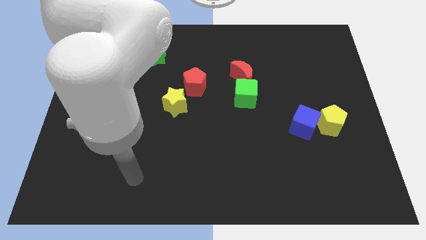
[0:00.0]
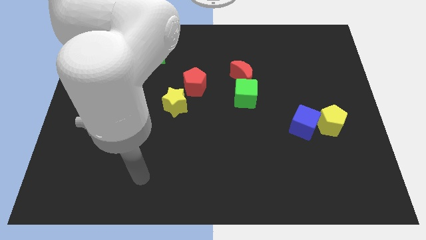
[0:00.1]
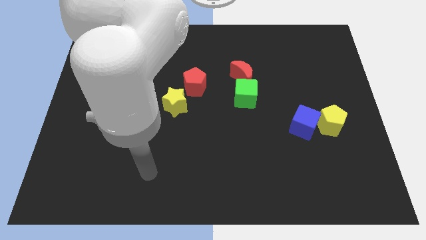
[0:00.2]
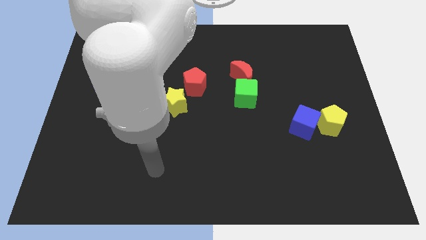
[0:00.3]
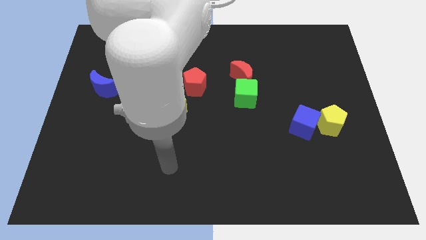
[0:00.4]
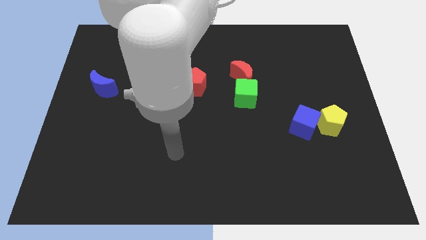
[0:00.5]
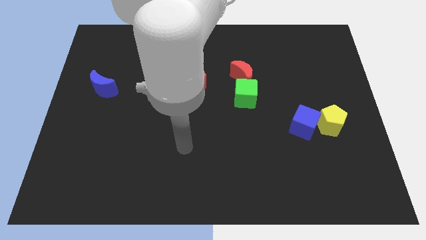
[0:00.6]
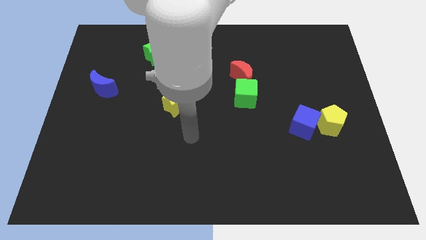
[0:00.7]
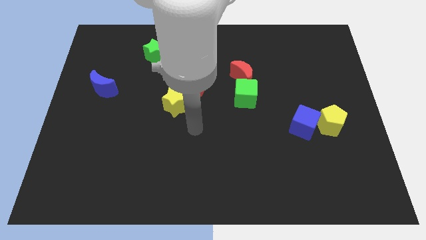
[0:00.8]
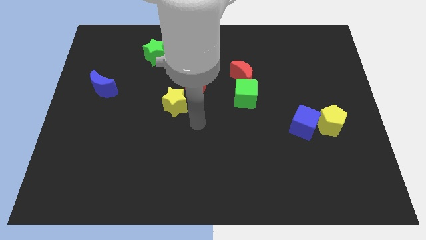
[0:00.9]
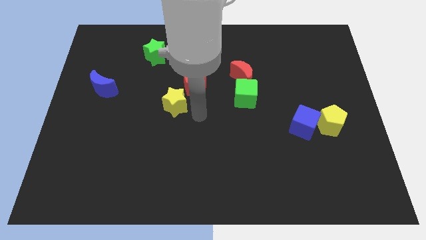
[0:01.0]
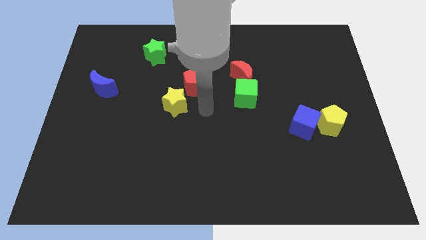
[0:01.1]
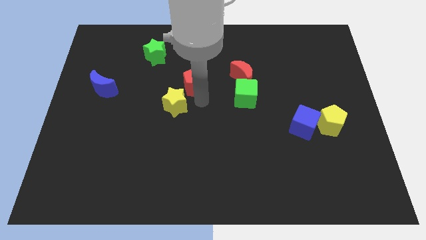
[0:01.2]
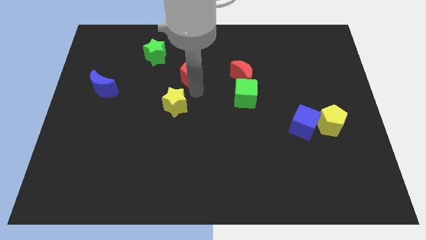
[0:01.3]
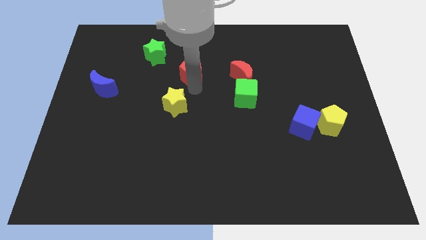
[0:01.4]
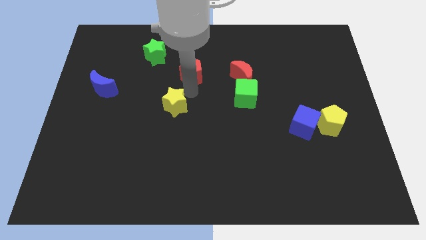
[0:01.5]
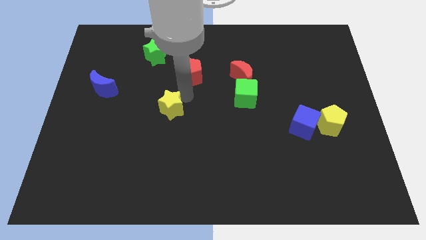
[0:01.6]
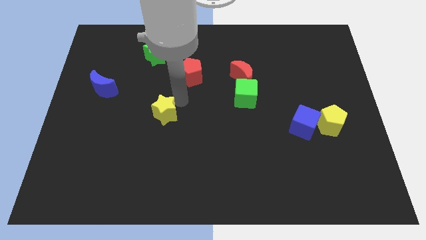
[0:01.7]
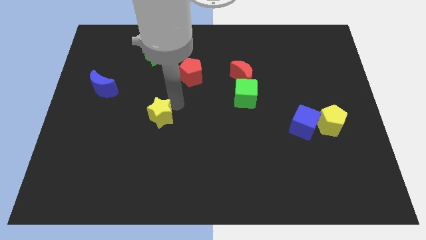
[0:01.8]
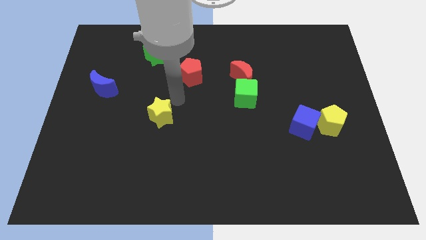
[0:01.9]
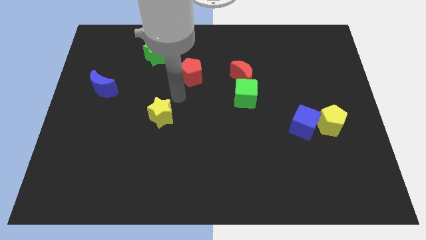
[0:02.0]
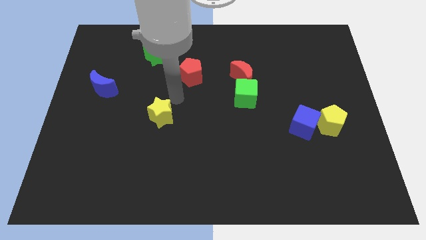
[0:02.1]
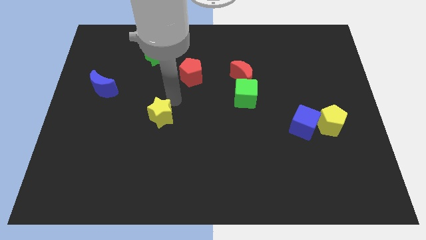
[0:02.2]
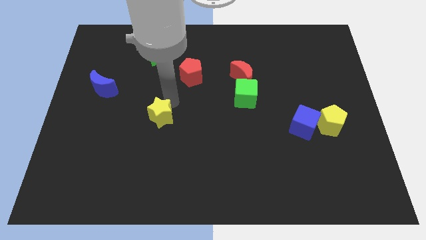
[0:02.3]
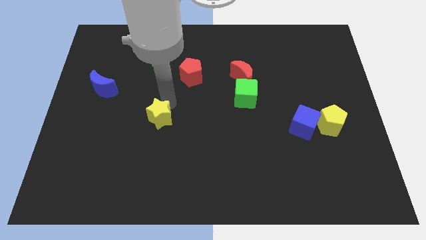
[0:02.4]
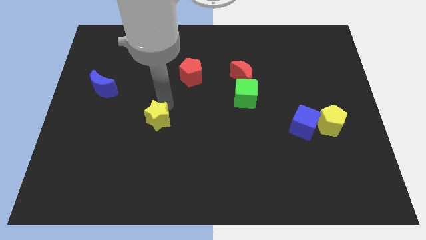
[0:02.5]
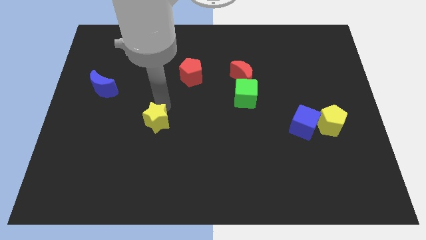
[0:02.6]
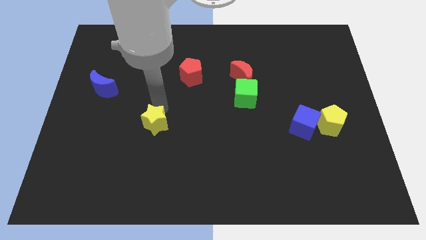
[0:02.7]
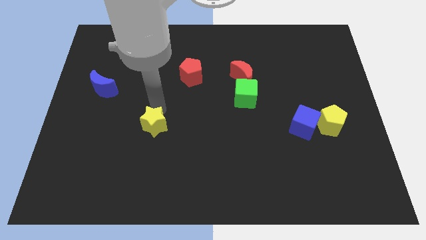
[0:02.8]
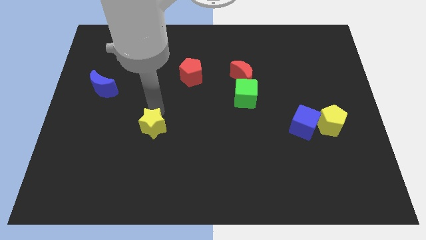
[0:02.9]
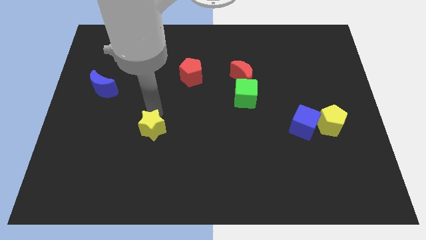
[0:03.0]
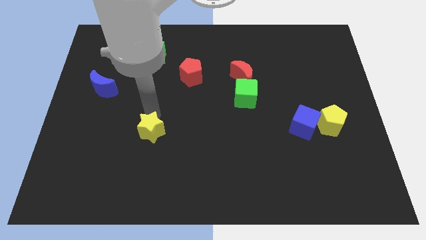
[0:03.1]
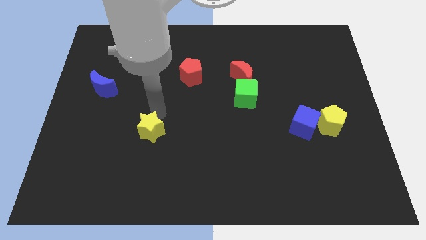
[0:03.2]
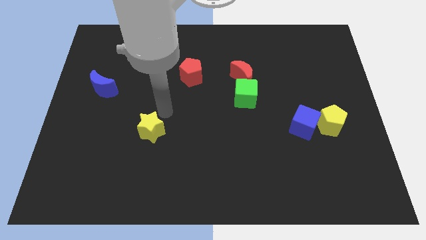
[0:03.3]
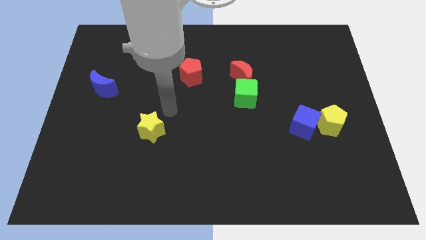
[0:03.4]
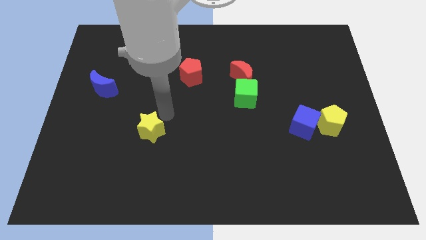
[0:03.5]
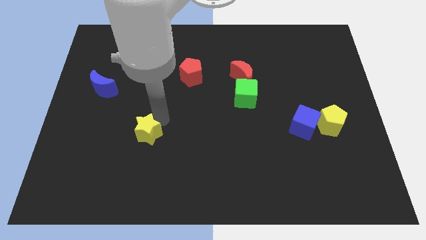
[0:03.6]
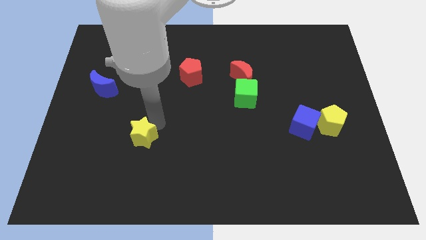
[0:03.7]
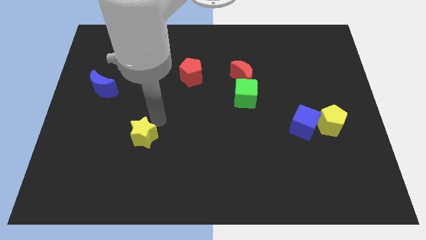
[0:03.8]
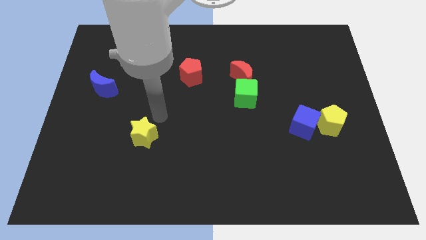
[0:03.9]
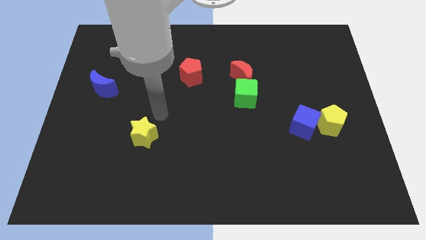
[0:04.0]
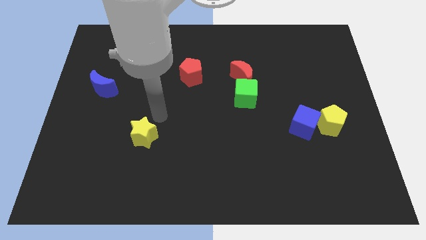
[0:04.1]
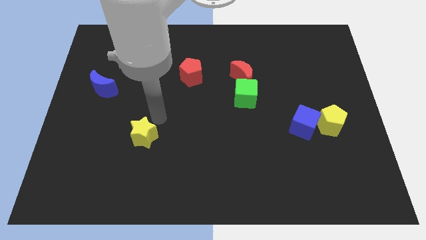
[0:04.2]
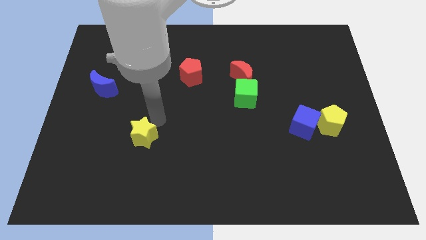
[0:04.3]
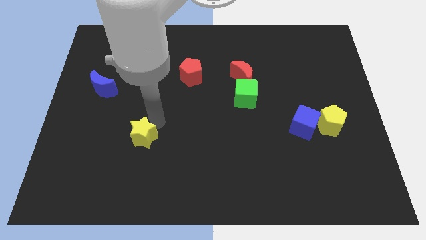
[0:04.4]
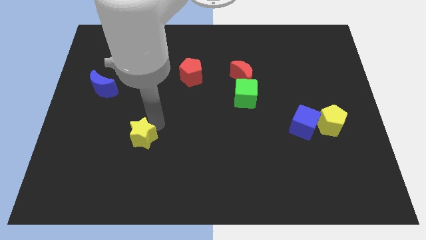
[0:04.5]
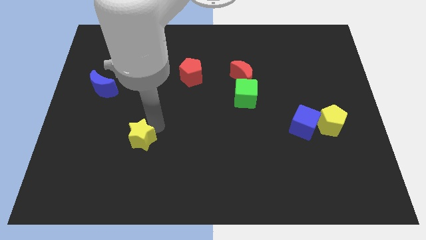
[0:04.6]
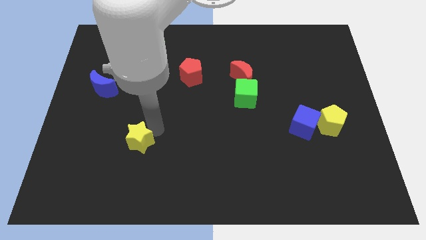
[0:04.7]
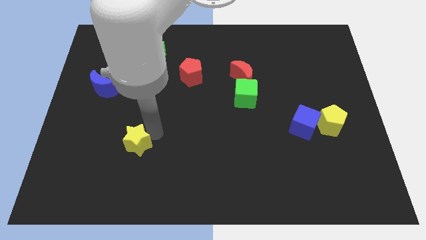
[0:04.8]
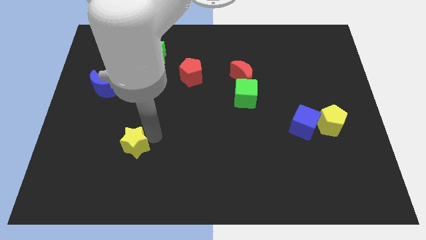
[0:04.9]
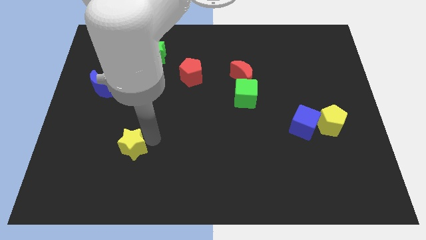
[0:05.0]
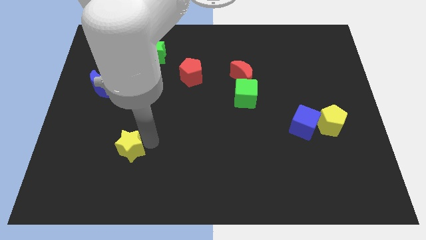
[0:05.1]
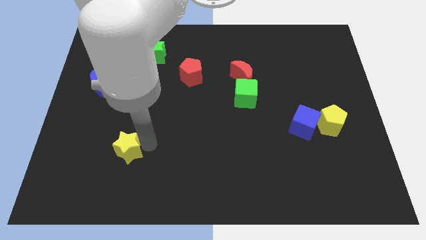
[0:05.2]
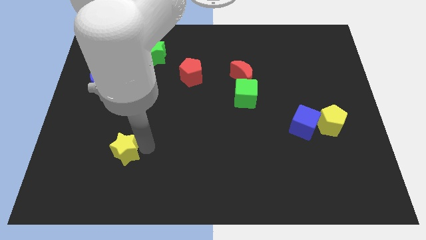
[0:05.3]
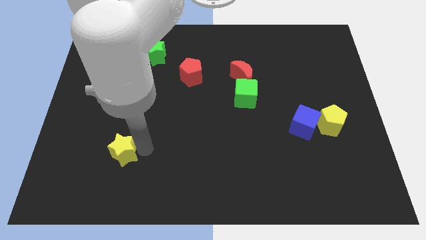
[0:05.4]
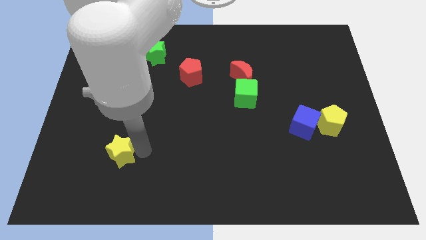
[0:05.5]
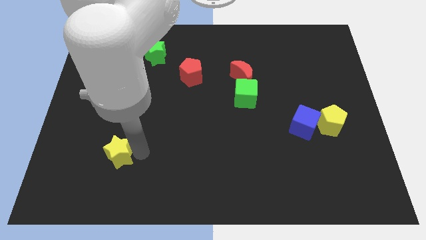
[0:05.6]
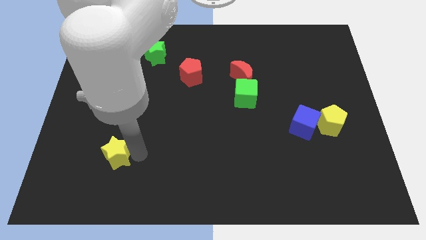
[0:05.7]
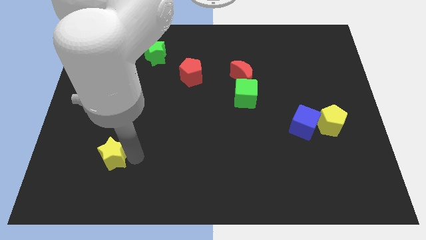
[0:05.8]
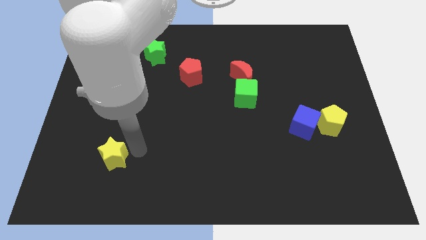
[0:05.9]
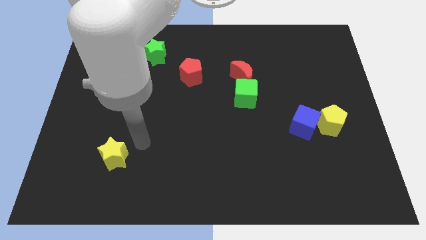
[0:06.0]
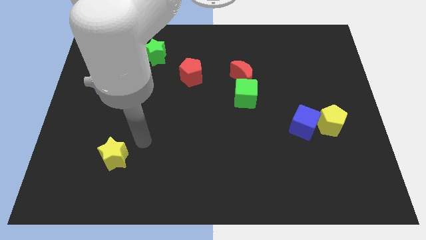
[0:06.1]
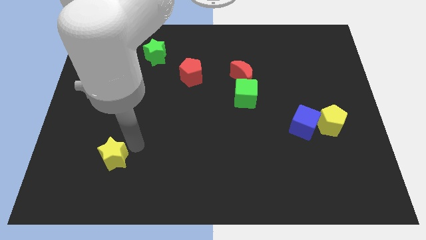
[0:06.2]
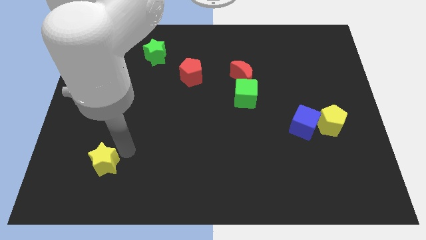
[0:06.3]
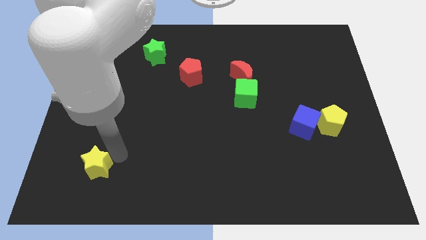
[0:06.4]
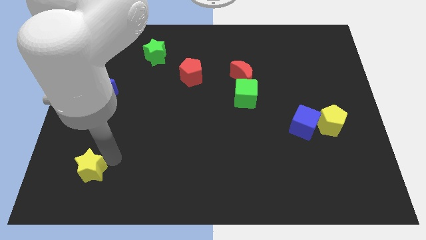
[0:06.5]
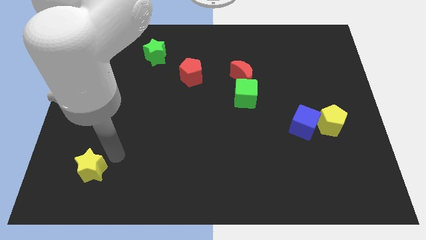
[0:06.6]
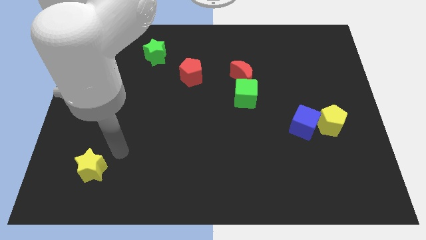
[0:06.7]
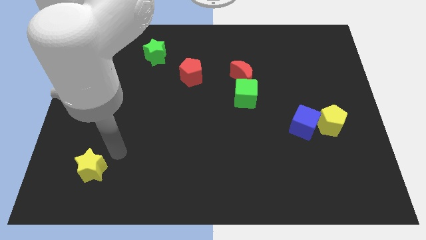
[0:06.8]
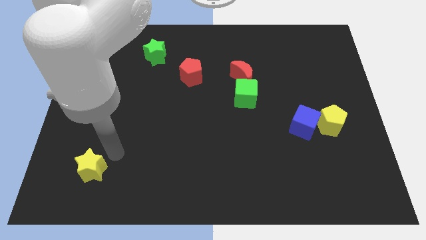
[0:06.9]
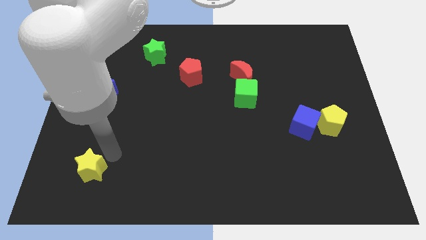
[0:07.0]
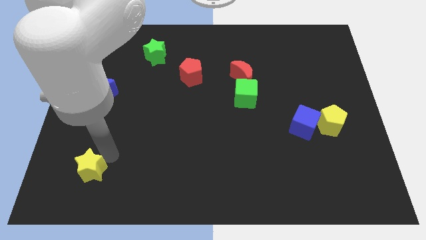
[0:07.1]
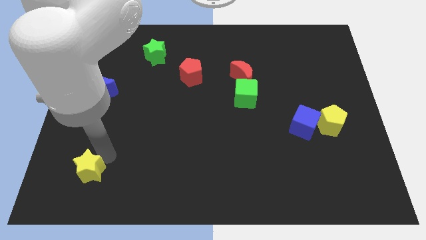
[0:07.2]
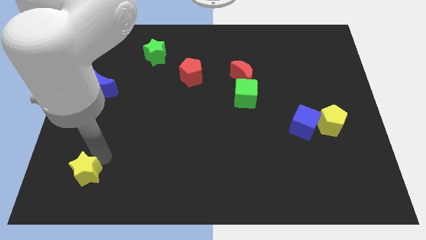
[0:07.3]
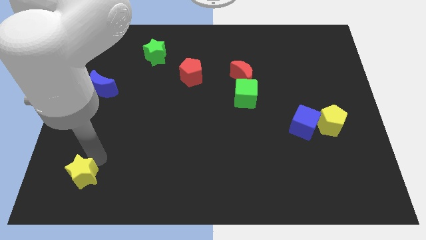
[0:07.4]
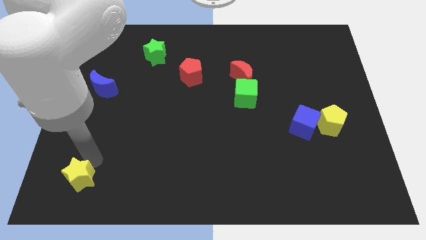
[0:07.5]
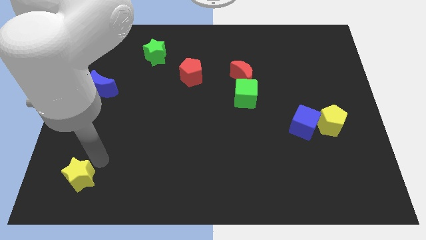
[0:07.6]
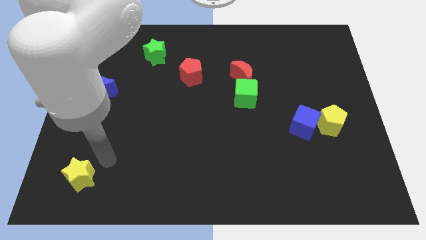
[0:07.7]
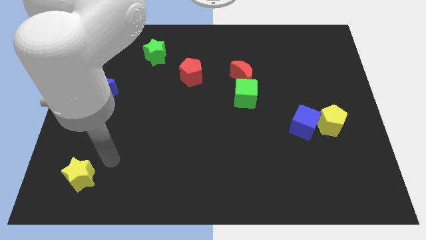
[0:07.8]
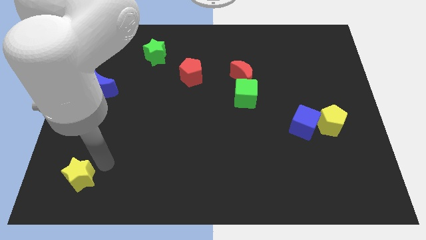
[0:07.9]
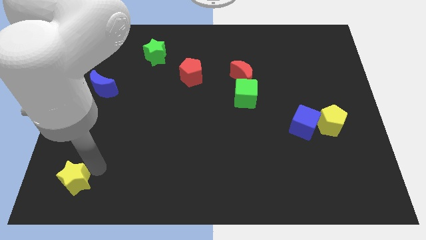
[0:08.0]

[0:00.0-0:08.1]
put the yellow star to the lower left corner
